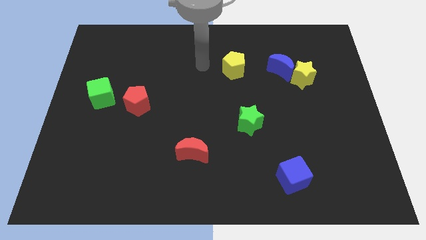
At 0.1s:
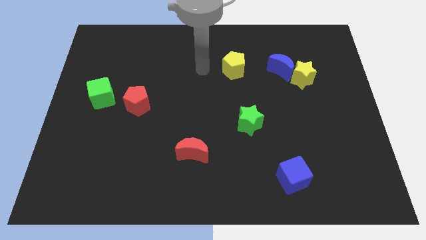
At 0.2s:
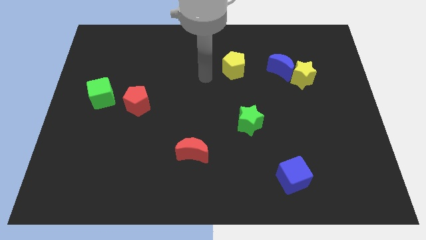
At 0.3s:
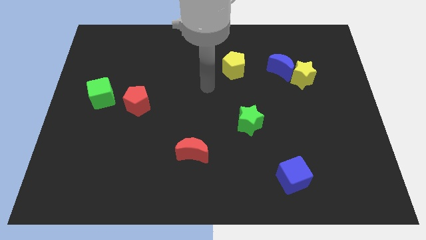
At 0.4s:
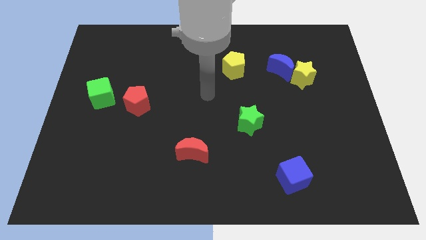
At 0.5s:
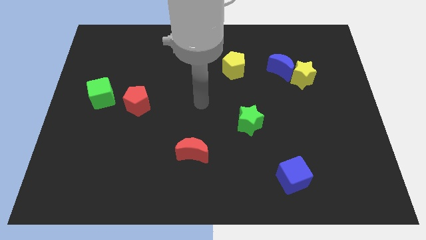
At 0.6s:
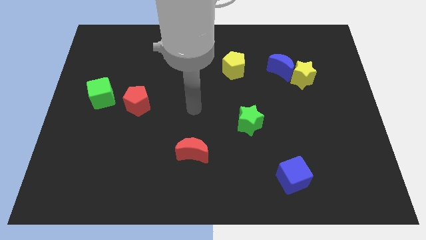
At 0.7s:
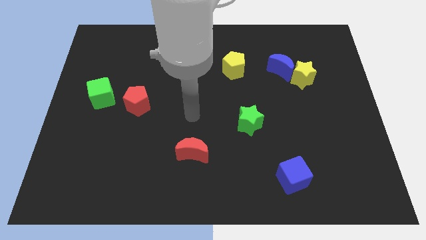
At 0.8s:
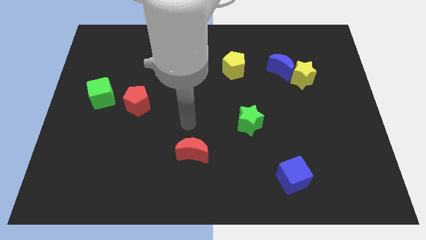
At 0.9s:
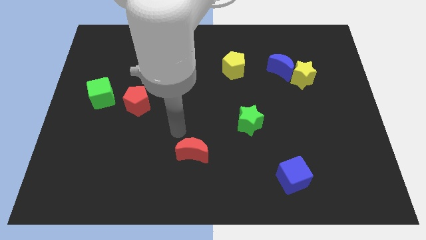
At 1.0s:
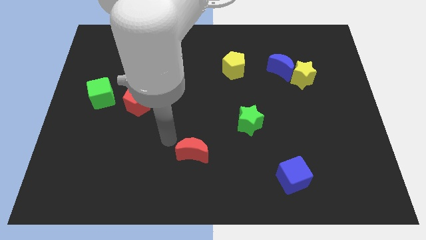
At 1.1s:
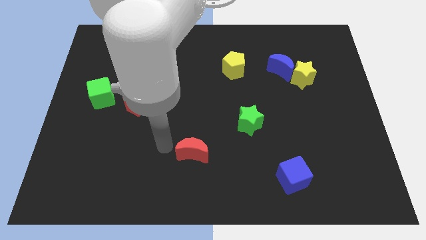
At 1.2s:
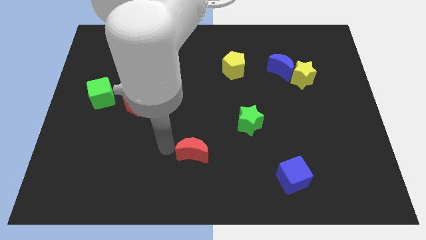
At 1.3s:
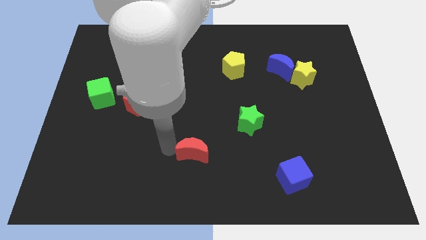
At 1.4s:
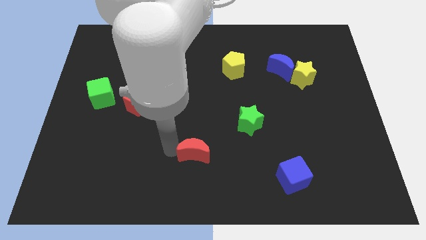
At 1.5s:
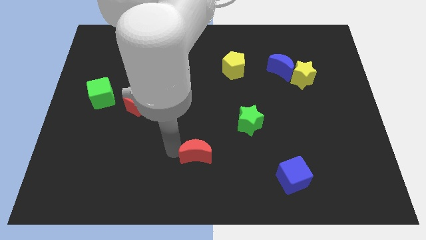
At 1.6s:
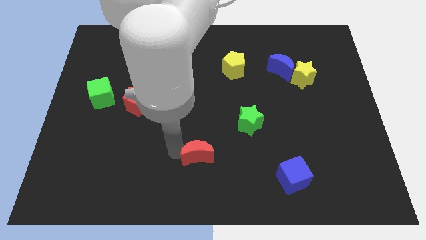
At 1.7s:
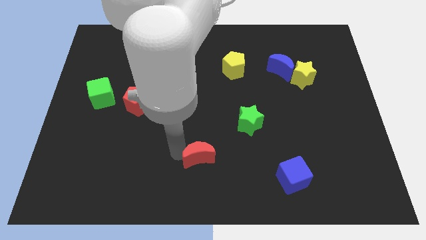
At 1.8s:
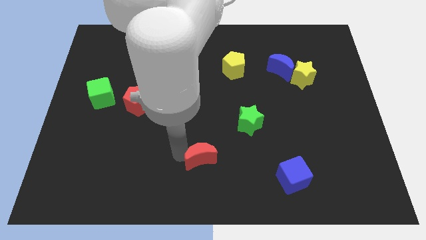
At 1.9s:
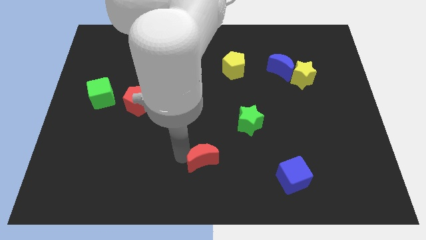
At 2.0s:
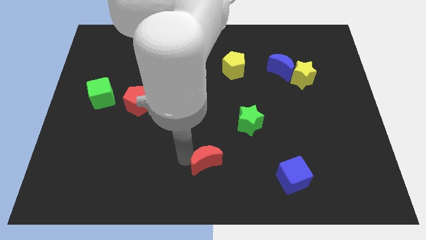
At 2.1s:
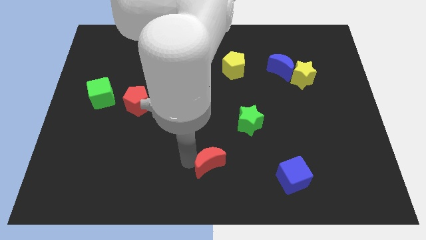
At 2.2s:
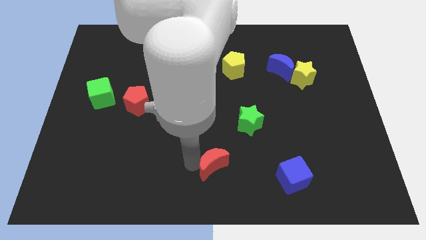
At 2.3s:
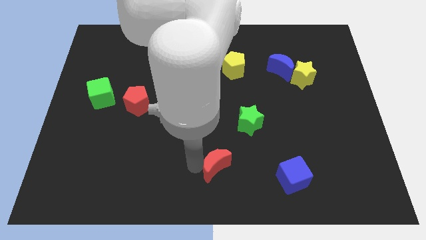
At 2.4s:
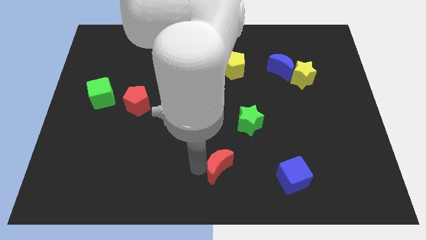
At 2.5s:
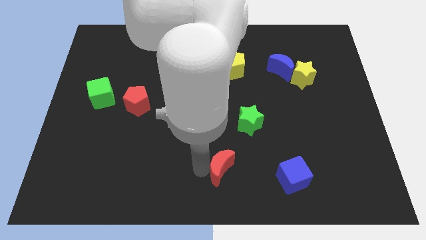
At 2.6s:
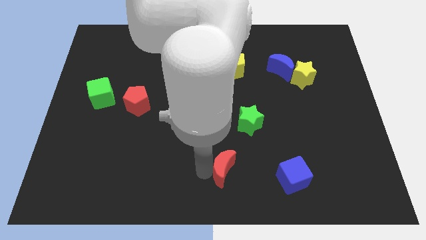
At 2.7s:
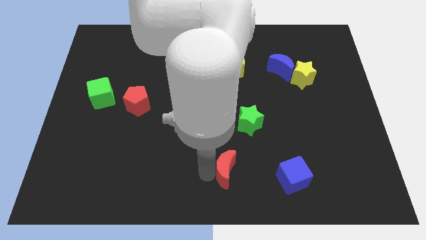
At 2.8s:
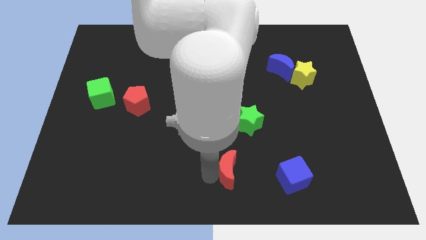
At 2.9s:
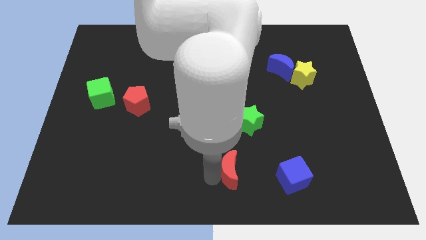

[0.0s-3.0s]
push the red moon to the right a little

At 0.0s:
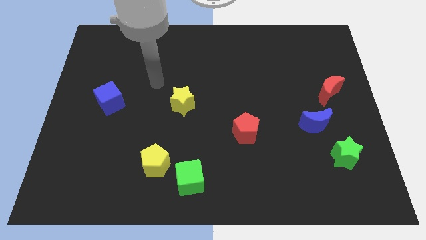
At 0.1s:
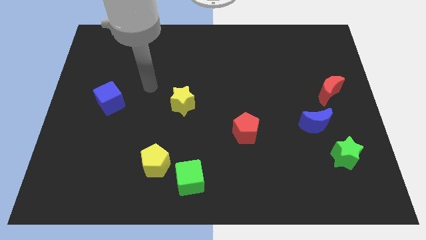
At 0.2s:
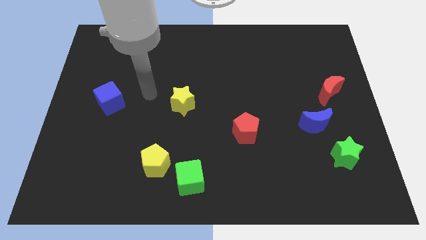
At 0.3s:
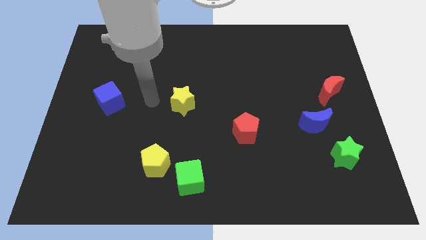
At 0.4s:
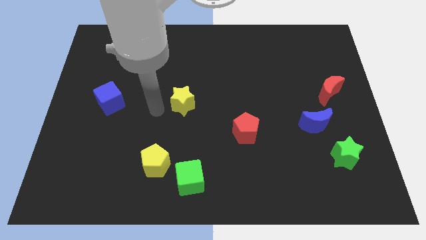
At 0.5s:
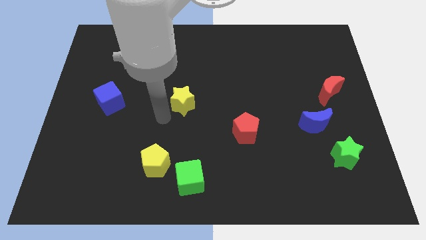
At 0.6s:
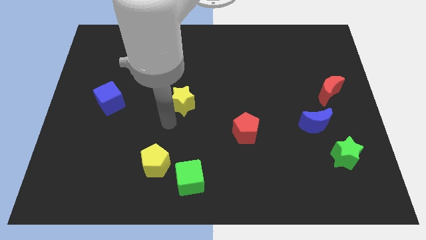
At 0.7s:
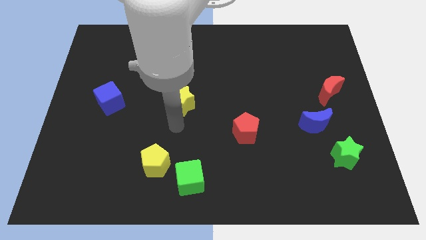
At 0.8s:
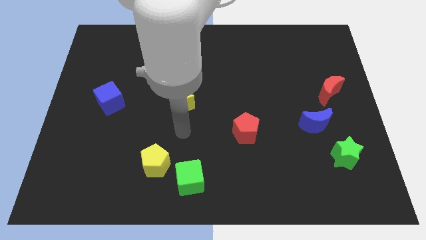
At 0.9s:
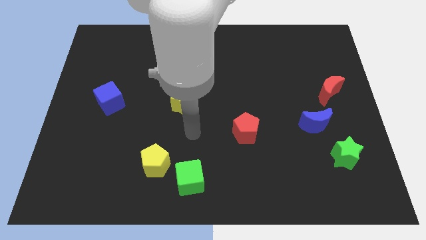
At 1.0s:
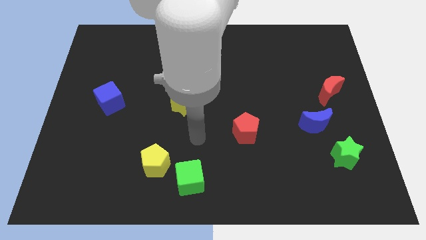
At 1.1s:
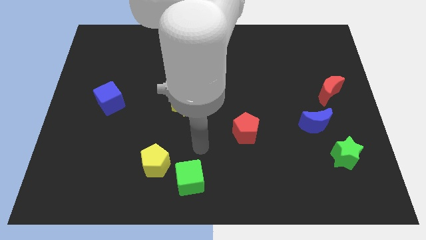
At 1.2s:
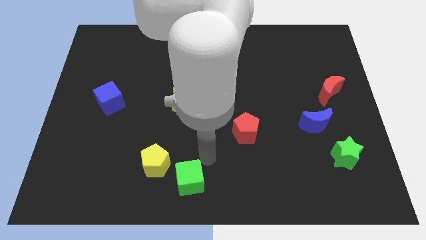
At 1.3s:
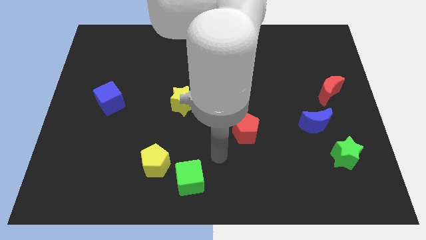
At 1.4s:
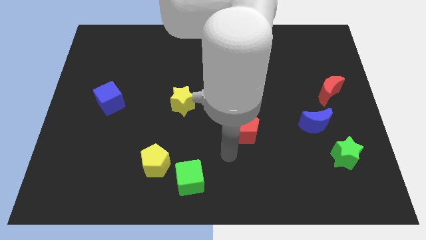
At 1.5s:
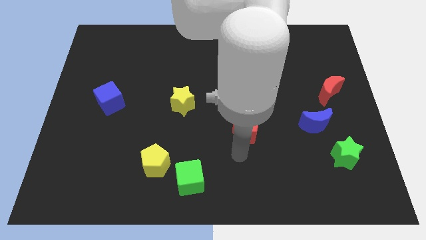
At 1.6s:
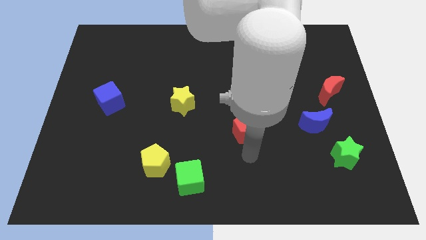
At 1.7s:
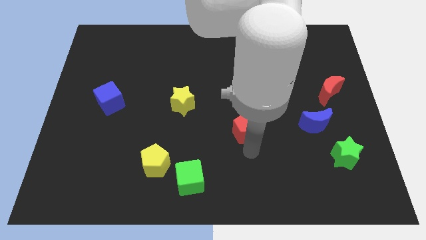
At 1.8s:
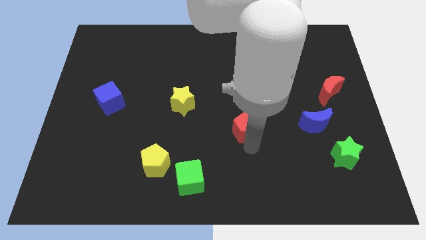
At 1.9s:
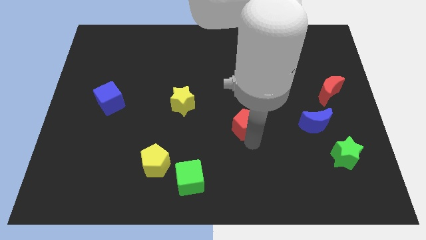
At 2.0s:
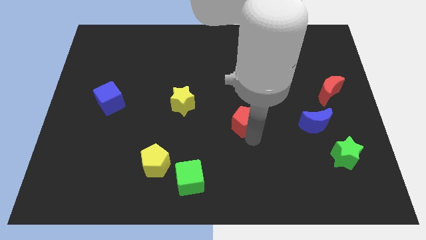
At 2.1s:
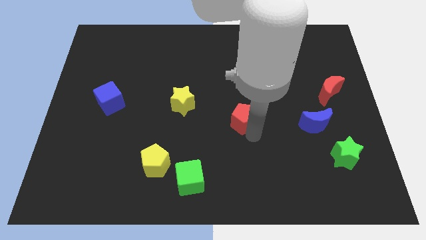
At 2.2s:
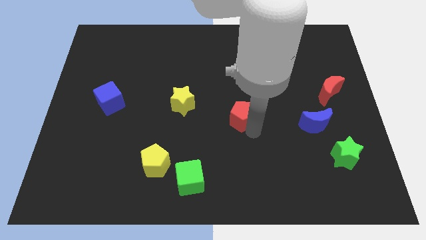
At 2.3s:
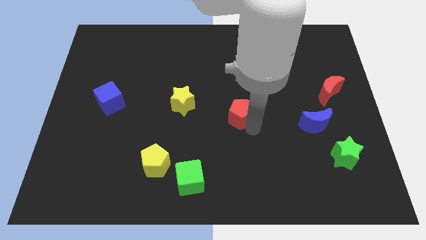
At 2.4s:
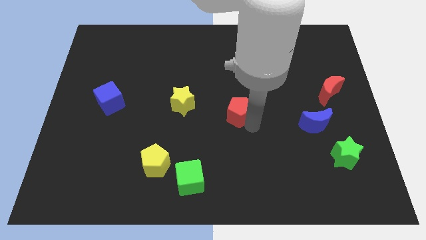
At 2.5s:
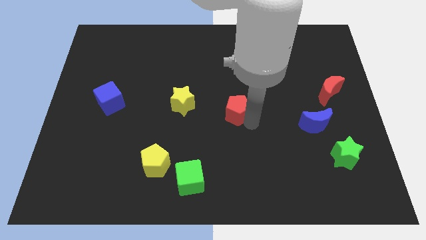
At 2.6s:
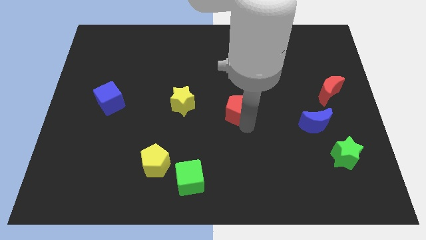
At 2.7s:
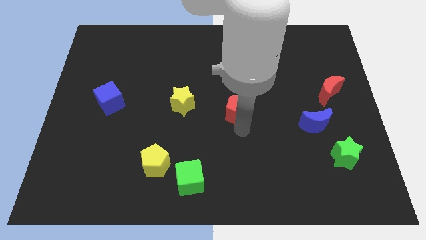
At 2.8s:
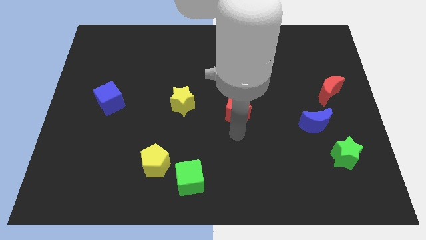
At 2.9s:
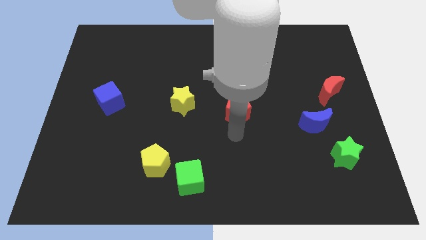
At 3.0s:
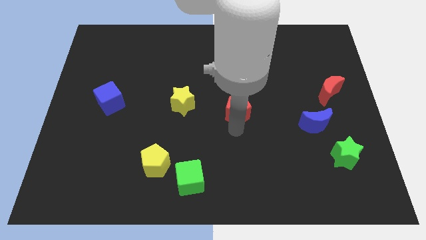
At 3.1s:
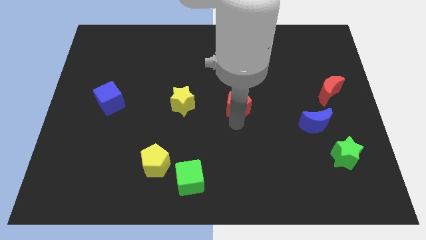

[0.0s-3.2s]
slightly slide the red pentagon upwards

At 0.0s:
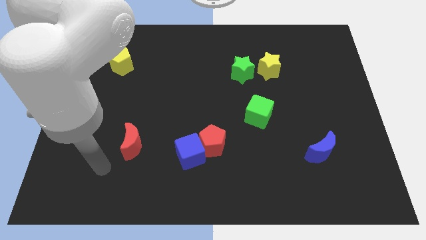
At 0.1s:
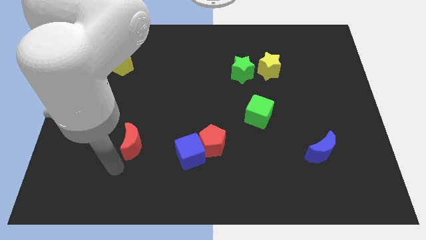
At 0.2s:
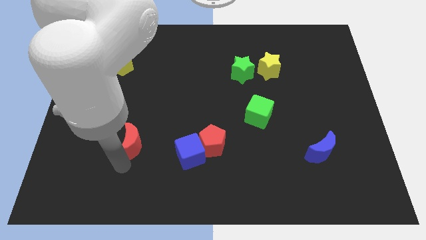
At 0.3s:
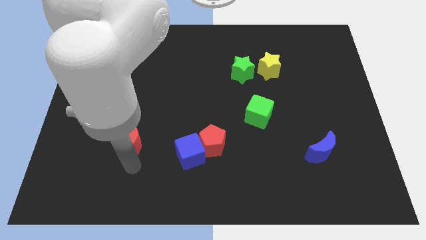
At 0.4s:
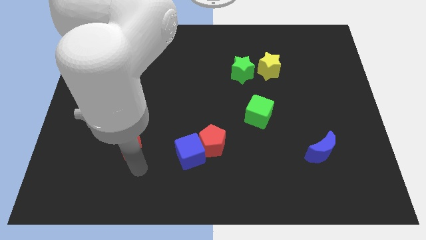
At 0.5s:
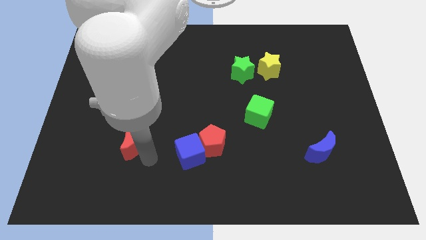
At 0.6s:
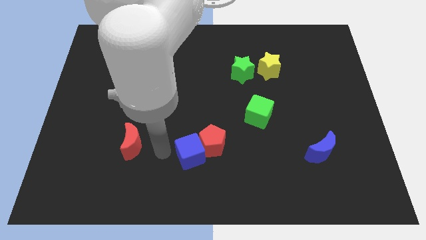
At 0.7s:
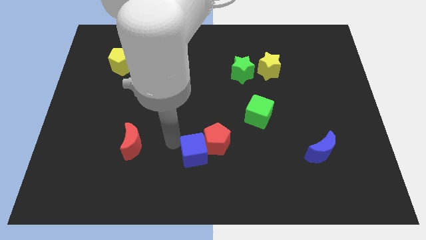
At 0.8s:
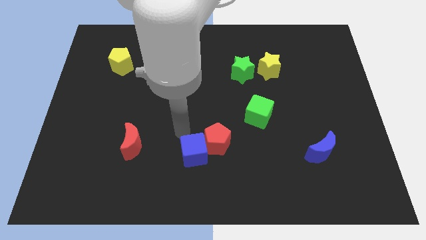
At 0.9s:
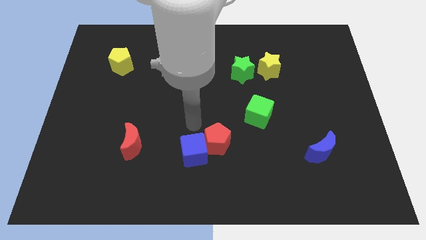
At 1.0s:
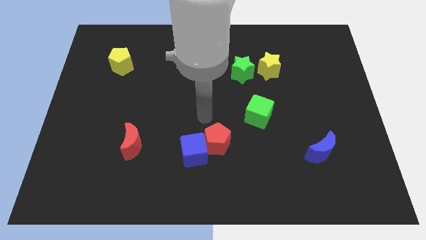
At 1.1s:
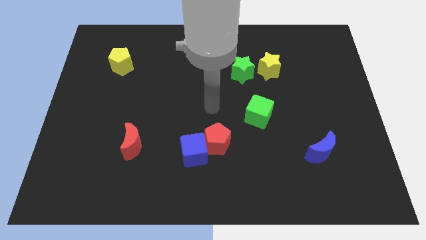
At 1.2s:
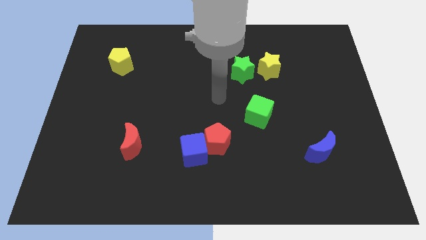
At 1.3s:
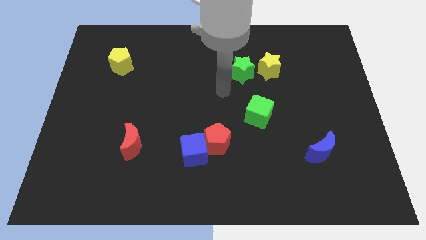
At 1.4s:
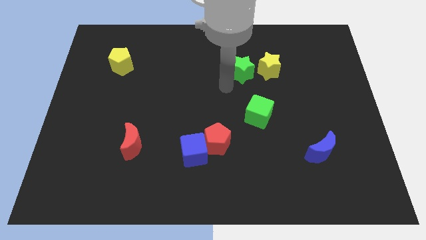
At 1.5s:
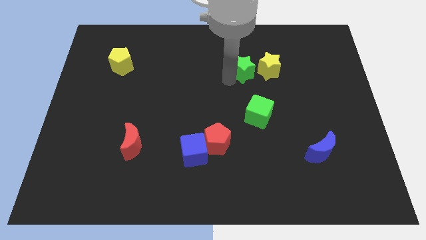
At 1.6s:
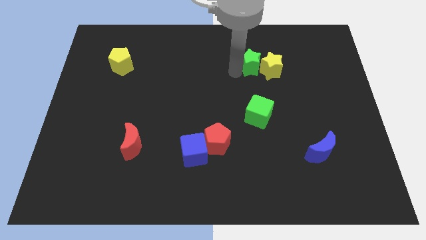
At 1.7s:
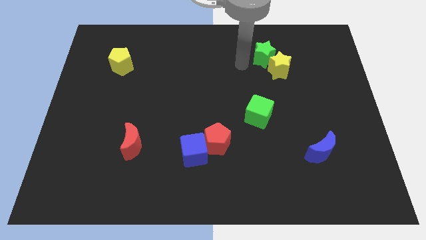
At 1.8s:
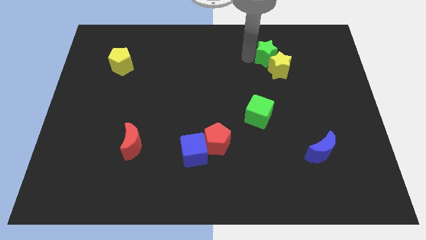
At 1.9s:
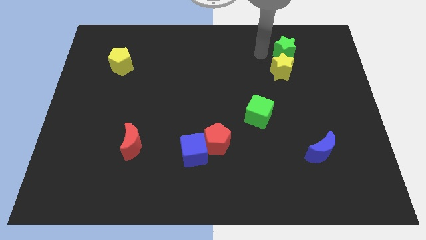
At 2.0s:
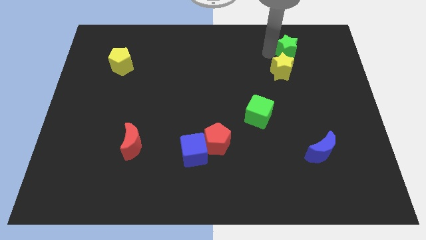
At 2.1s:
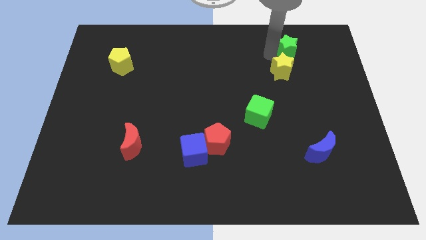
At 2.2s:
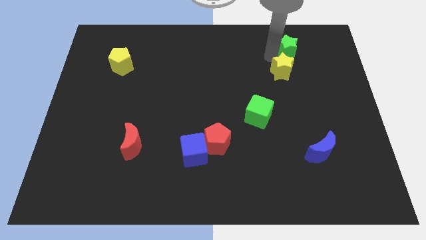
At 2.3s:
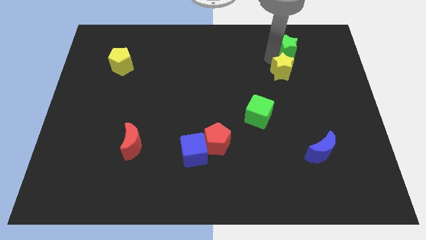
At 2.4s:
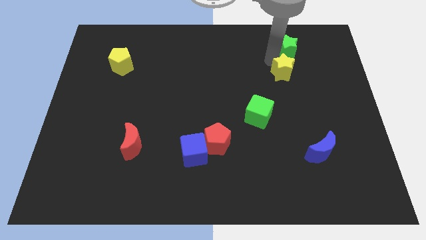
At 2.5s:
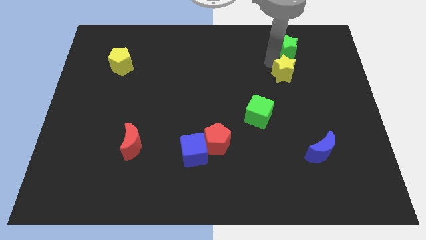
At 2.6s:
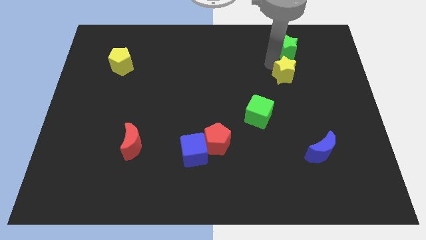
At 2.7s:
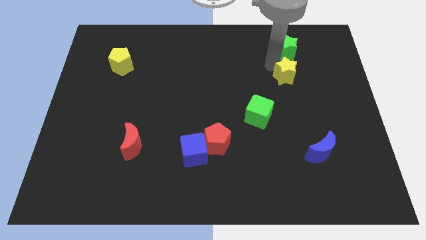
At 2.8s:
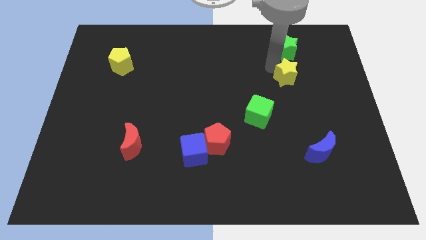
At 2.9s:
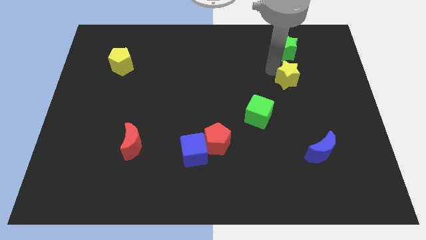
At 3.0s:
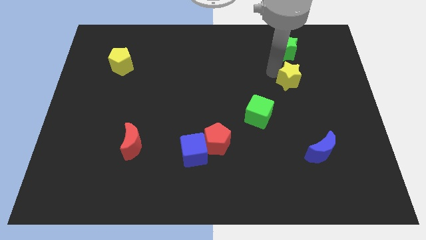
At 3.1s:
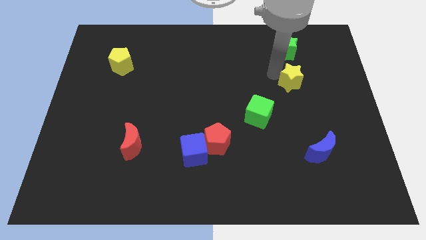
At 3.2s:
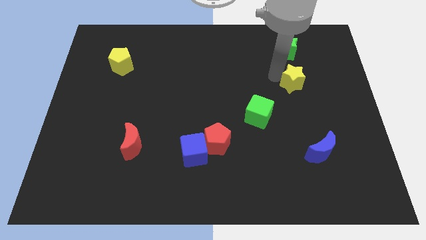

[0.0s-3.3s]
slightly slide the yellow star diagonally downwards and to the right
